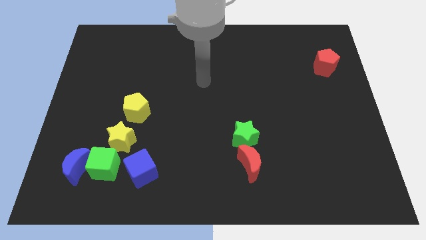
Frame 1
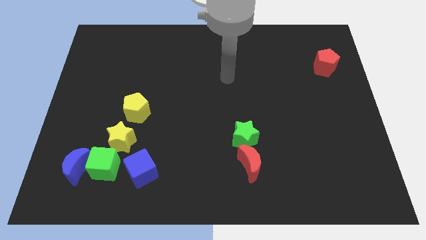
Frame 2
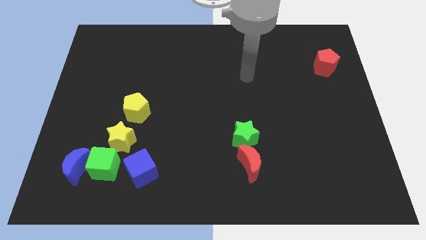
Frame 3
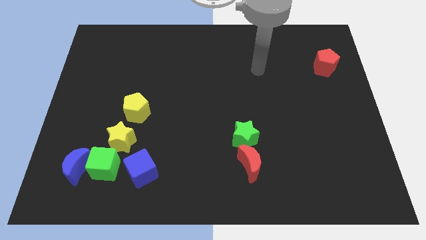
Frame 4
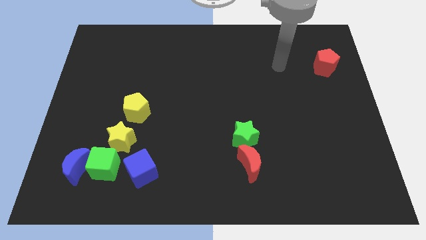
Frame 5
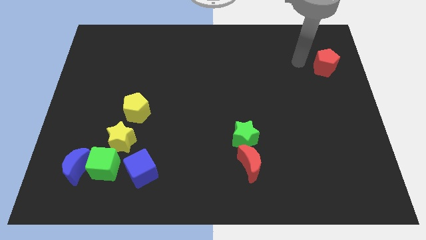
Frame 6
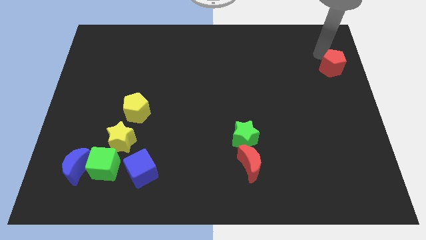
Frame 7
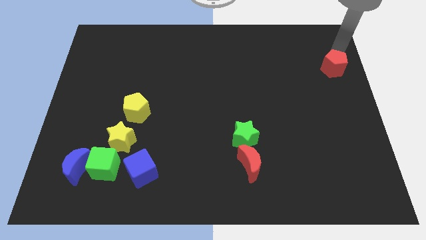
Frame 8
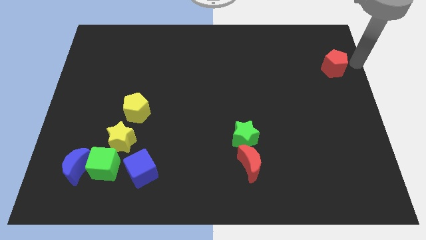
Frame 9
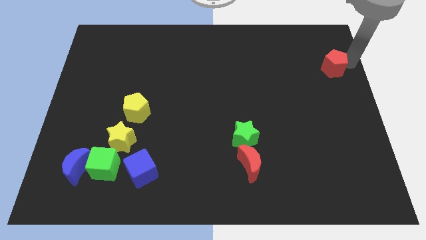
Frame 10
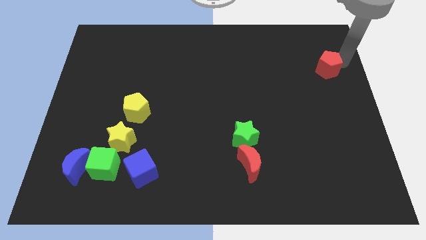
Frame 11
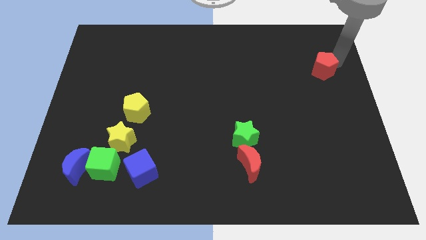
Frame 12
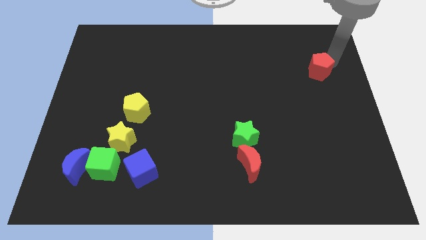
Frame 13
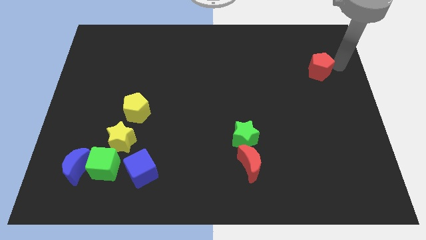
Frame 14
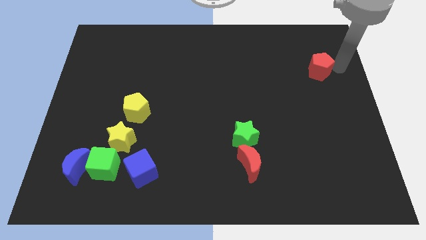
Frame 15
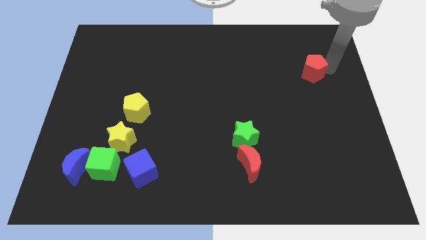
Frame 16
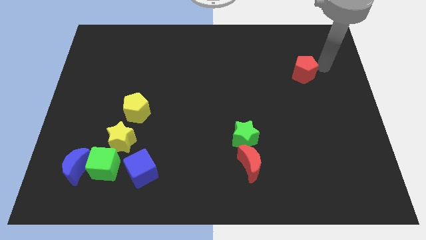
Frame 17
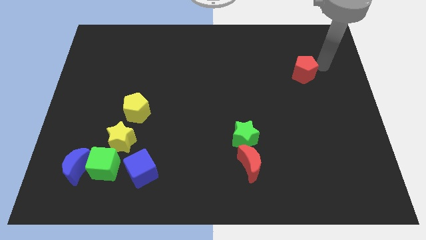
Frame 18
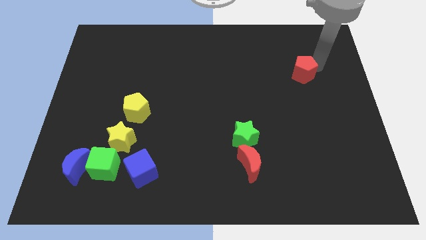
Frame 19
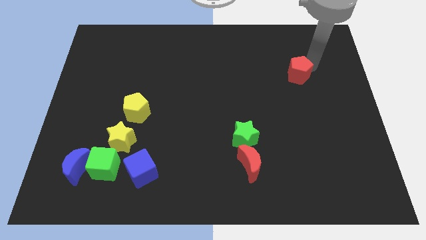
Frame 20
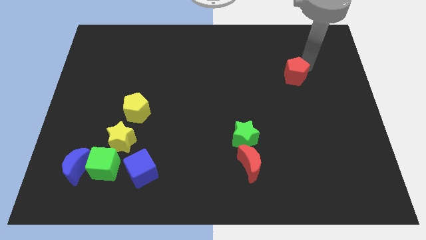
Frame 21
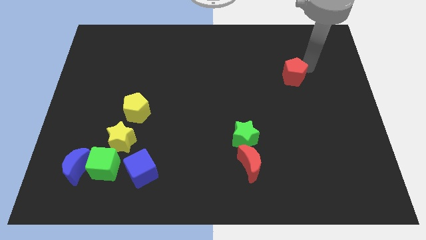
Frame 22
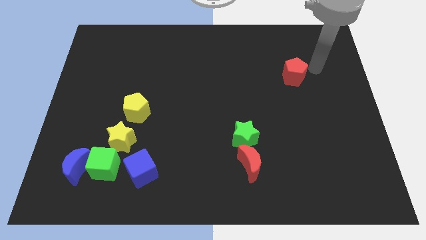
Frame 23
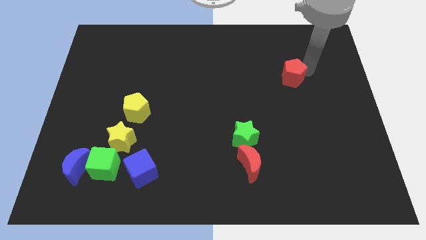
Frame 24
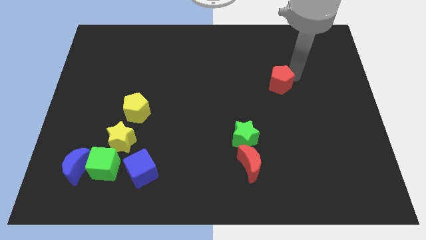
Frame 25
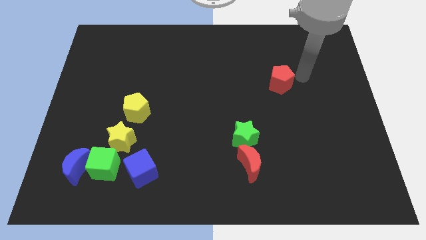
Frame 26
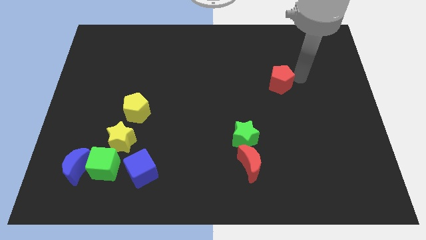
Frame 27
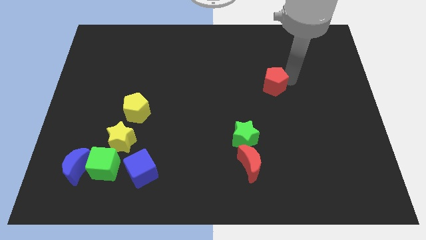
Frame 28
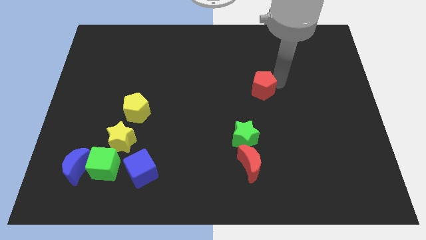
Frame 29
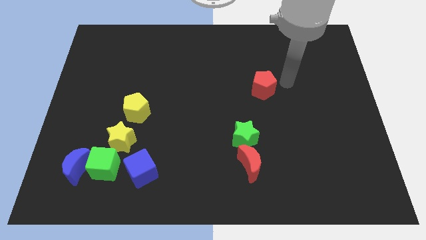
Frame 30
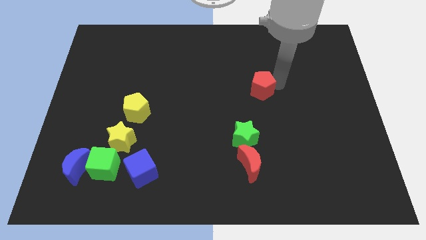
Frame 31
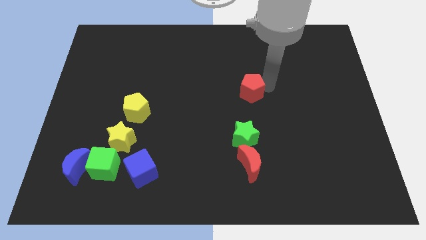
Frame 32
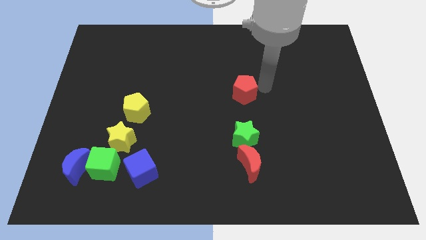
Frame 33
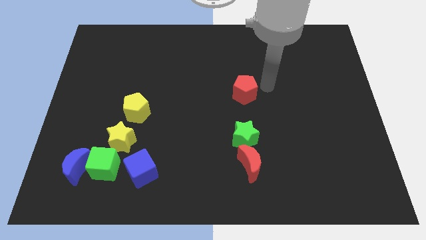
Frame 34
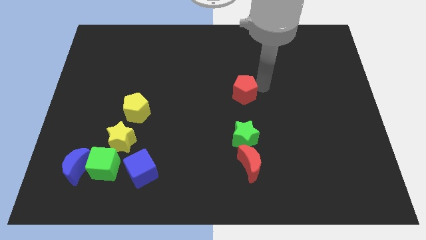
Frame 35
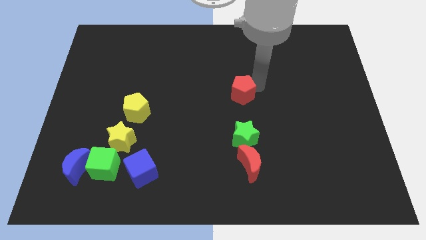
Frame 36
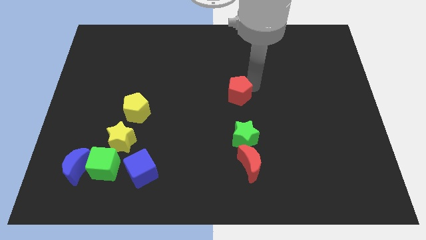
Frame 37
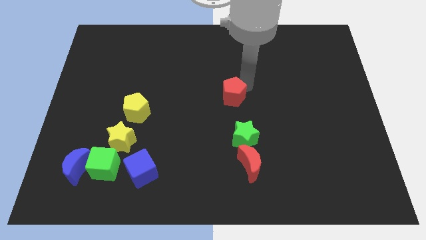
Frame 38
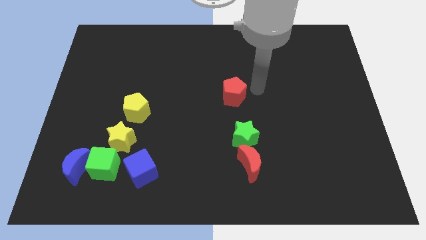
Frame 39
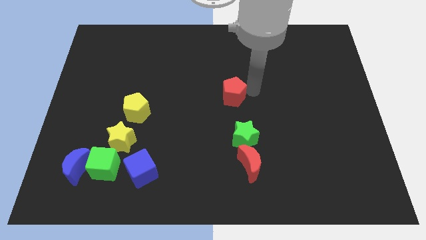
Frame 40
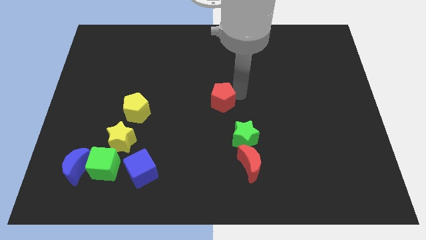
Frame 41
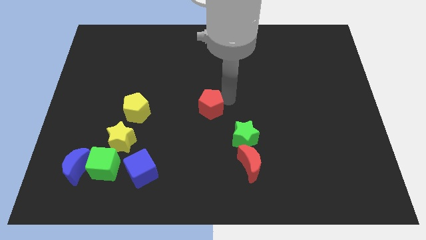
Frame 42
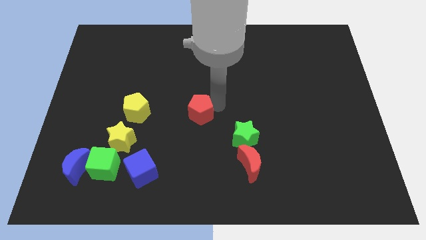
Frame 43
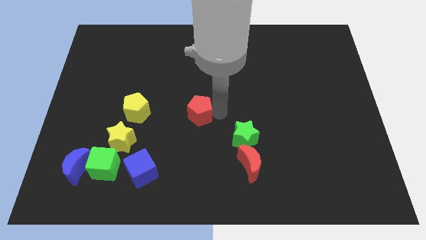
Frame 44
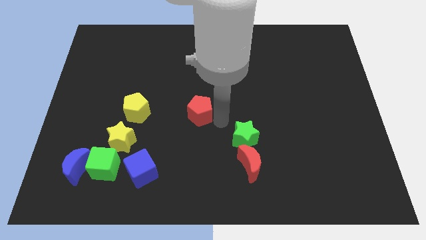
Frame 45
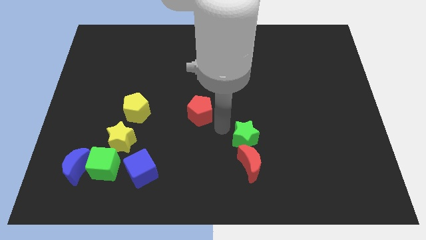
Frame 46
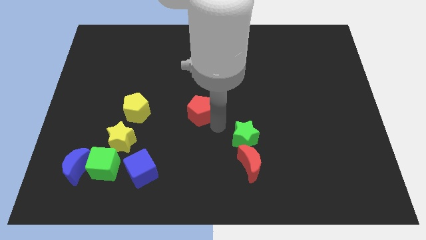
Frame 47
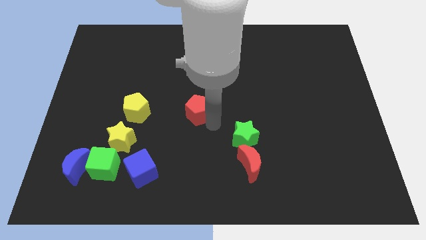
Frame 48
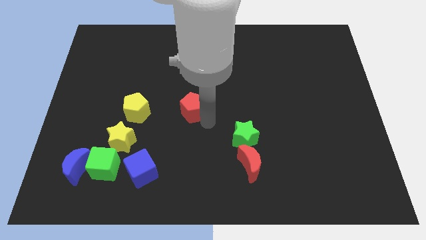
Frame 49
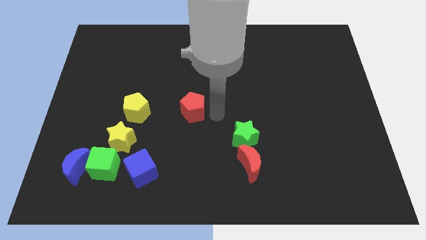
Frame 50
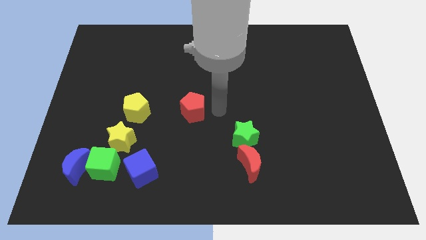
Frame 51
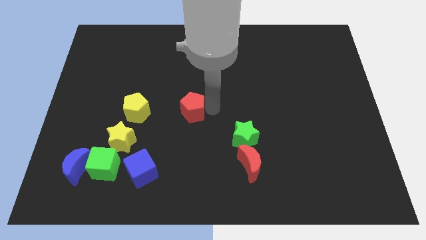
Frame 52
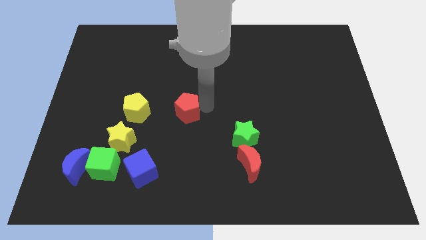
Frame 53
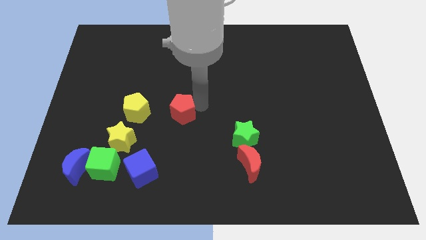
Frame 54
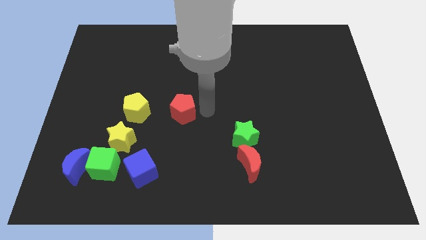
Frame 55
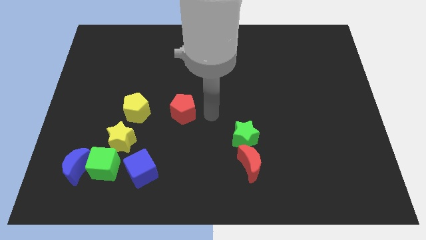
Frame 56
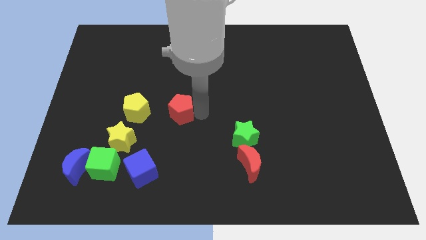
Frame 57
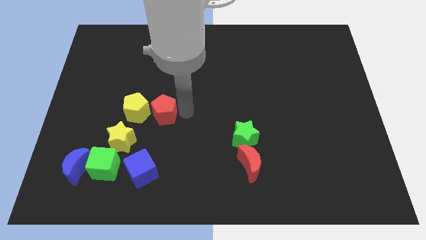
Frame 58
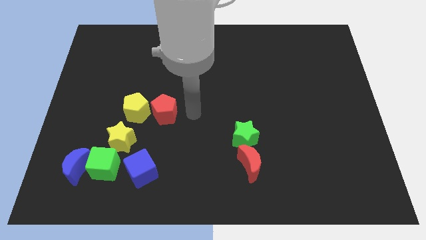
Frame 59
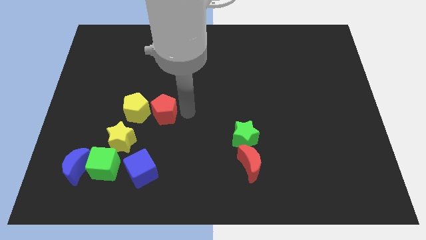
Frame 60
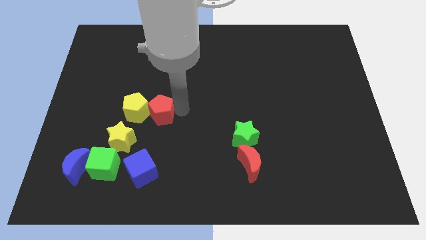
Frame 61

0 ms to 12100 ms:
move the red pentagon close to the yellow pentagon

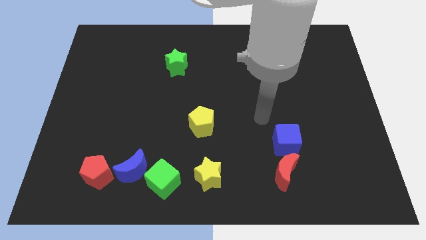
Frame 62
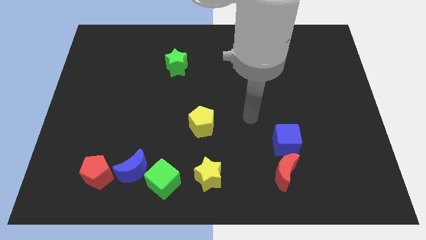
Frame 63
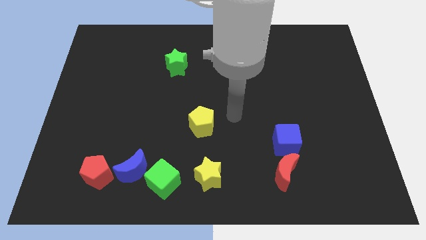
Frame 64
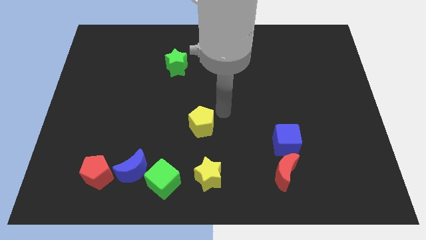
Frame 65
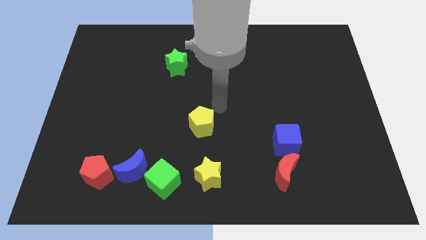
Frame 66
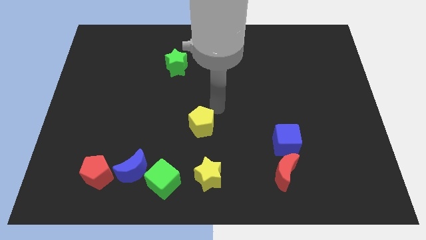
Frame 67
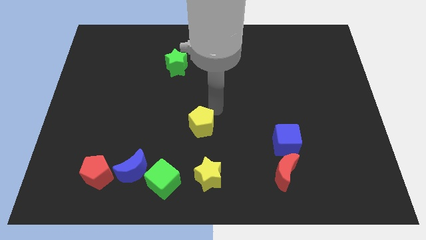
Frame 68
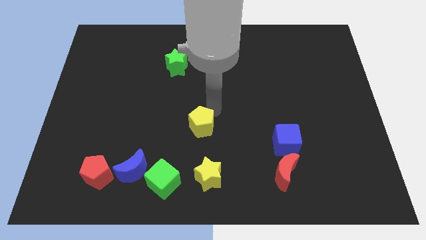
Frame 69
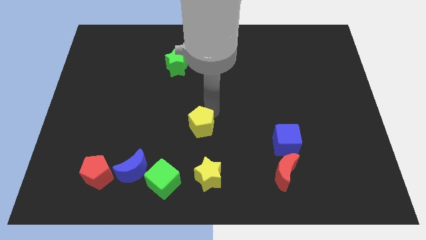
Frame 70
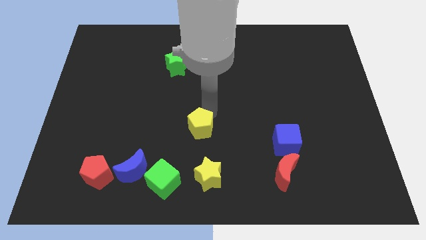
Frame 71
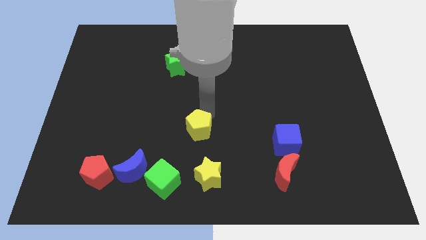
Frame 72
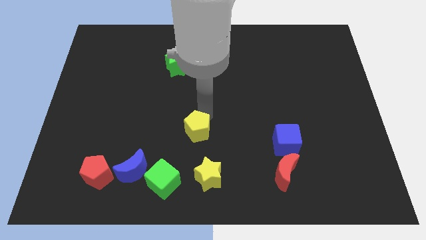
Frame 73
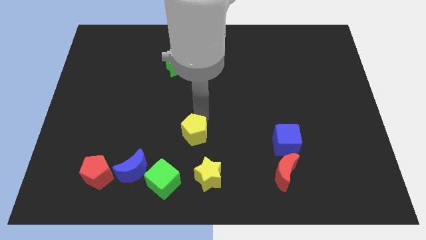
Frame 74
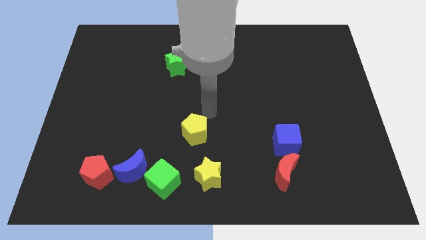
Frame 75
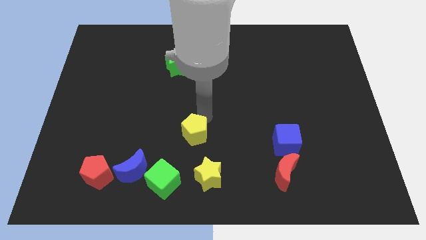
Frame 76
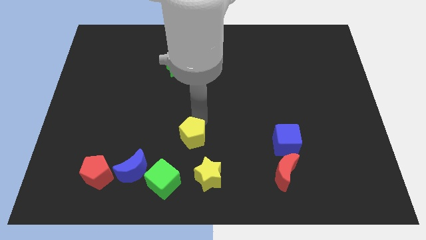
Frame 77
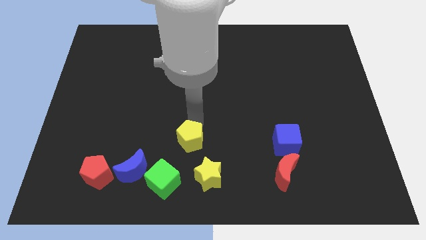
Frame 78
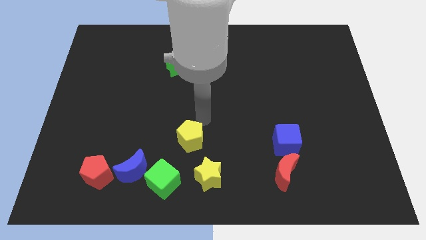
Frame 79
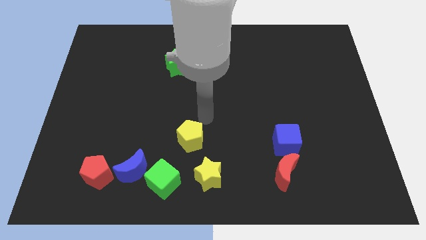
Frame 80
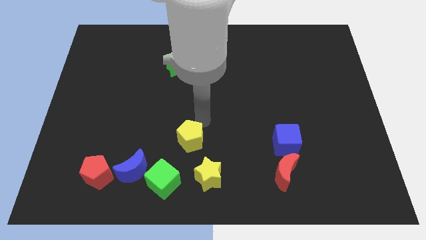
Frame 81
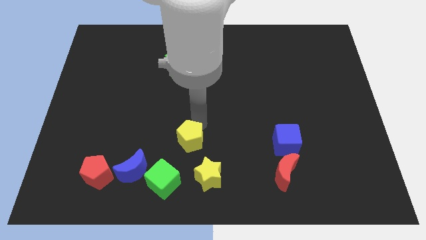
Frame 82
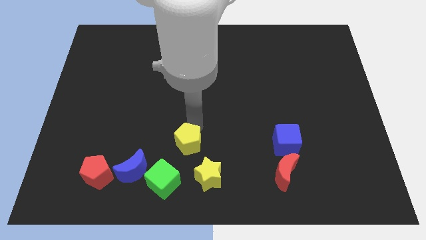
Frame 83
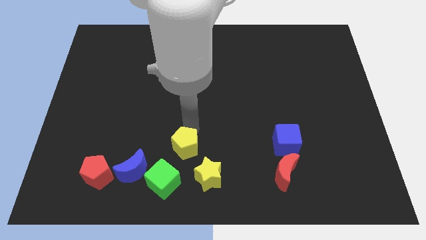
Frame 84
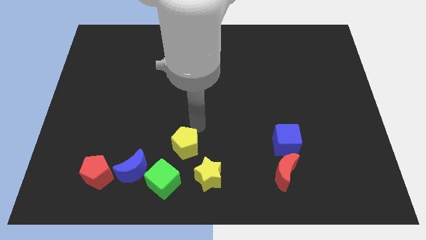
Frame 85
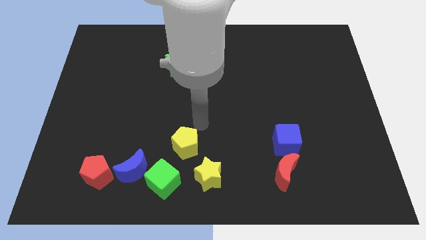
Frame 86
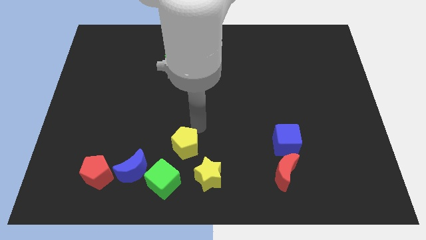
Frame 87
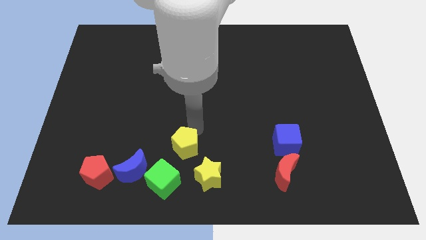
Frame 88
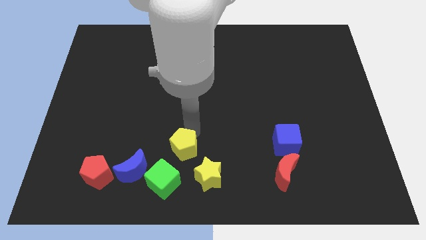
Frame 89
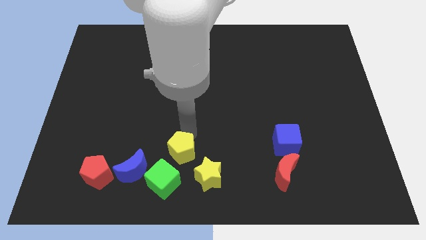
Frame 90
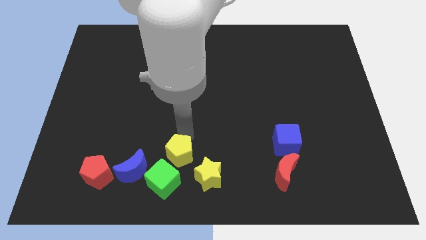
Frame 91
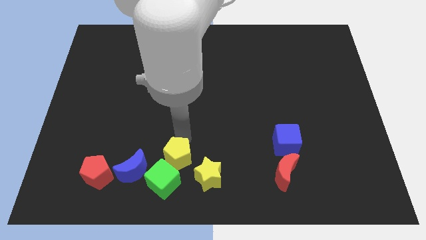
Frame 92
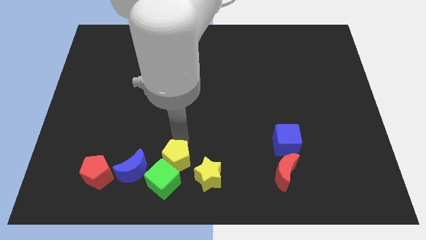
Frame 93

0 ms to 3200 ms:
push the yellow pentagon to the green cube
